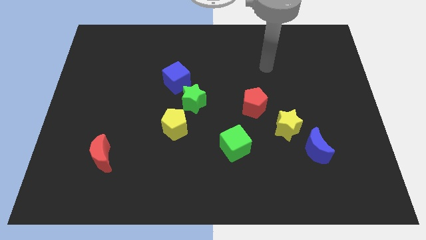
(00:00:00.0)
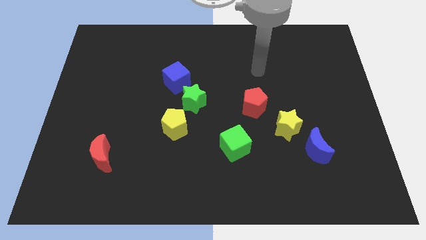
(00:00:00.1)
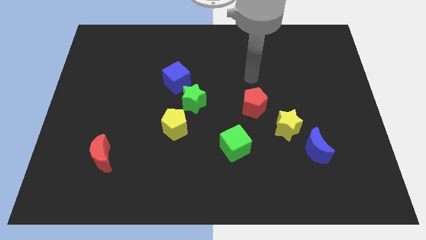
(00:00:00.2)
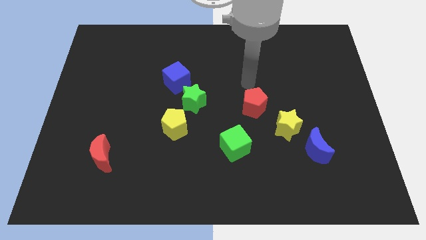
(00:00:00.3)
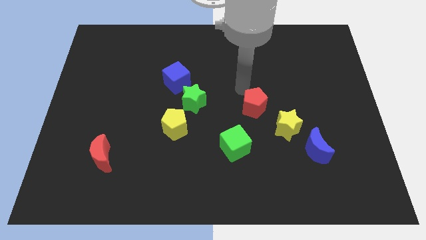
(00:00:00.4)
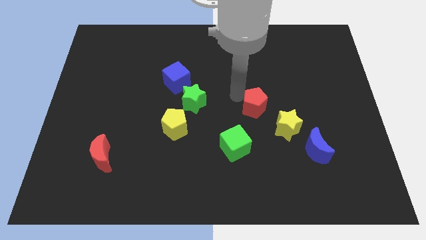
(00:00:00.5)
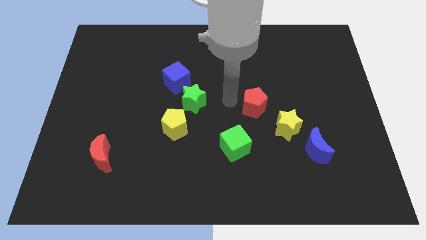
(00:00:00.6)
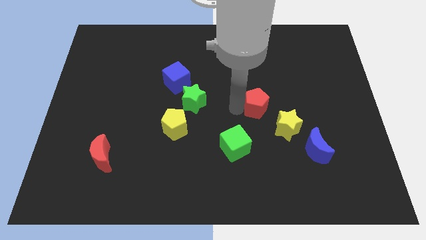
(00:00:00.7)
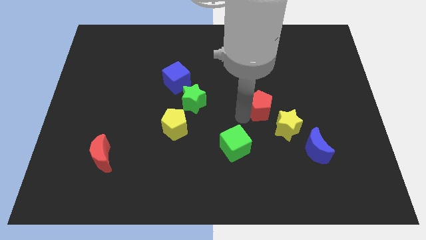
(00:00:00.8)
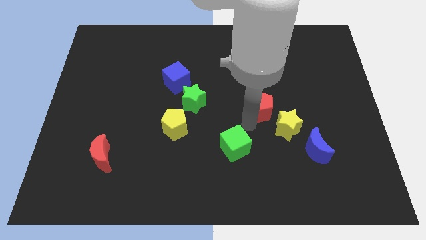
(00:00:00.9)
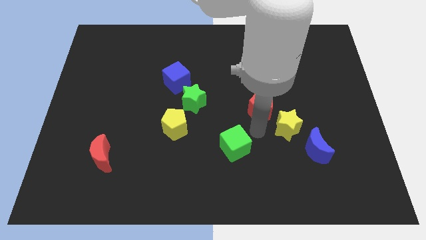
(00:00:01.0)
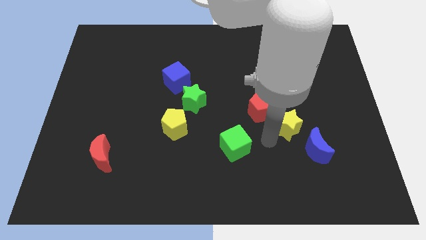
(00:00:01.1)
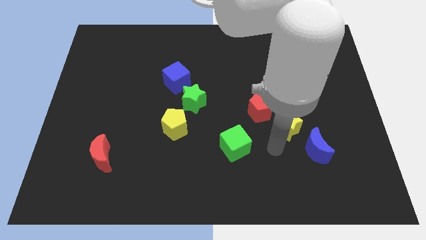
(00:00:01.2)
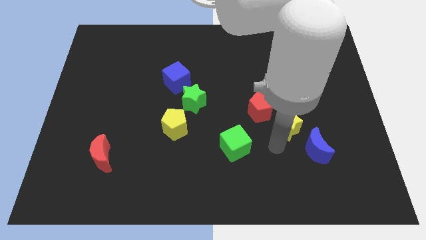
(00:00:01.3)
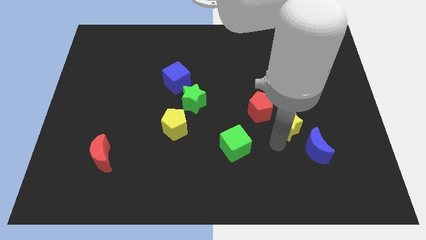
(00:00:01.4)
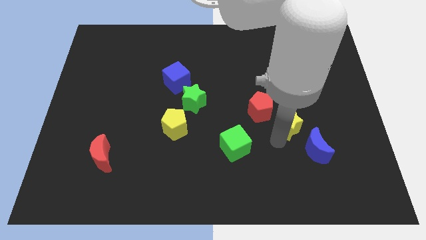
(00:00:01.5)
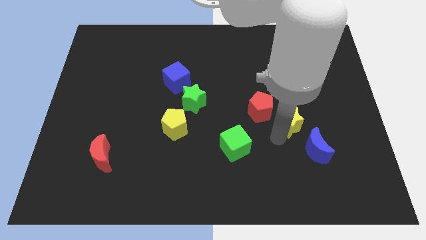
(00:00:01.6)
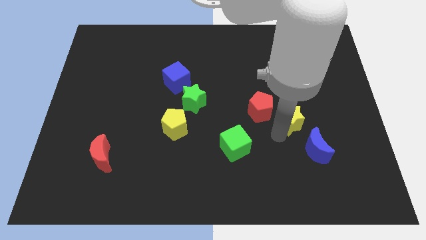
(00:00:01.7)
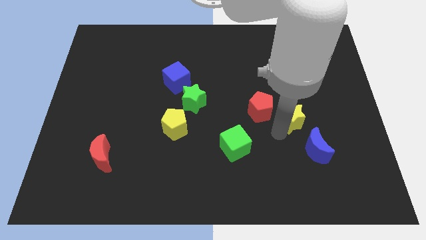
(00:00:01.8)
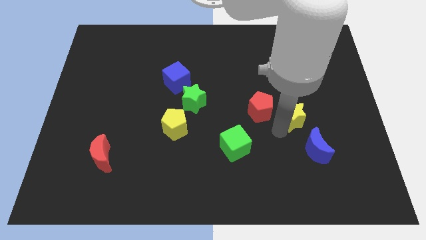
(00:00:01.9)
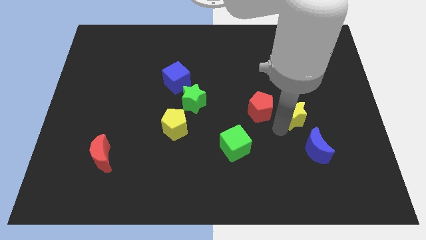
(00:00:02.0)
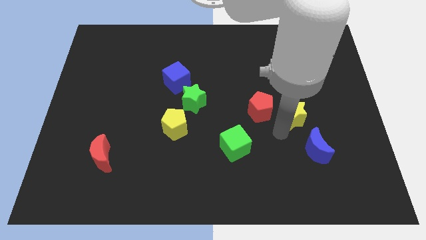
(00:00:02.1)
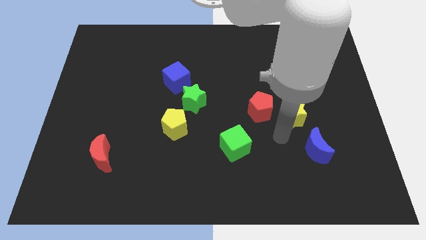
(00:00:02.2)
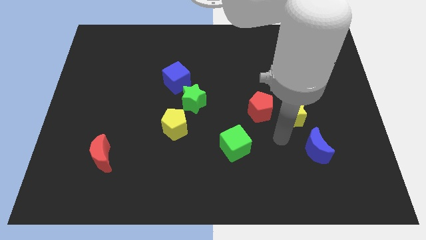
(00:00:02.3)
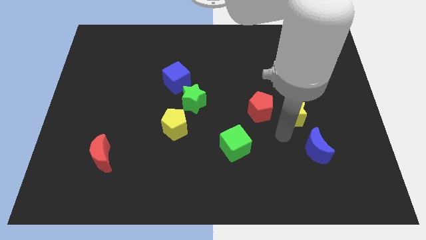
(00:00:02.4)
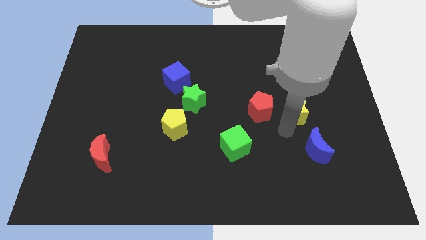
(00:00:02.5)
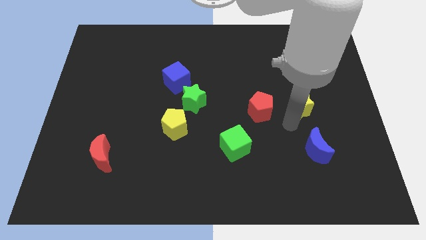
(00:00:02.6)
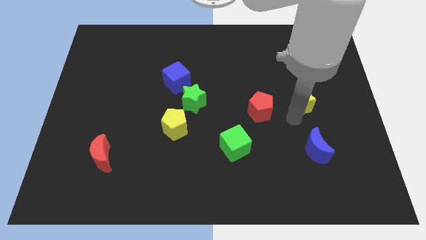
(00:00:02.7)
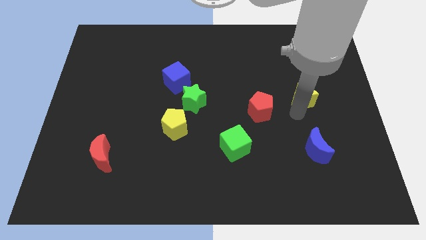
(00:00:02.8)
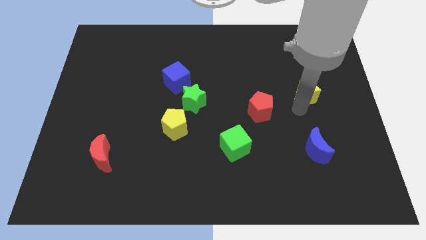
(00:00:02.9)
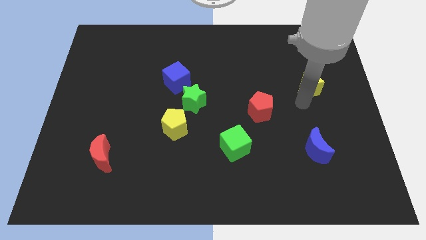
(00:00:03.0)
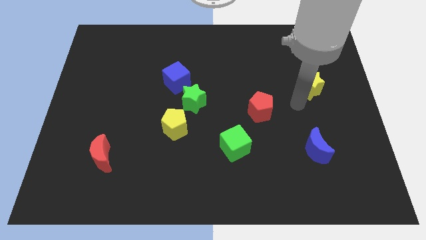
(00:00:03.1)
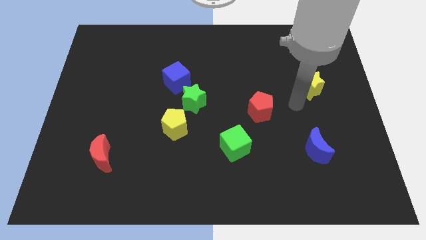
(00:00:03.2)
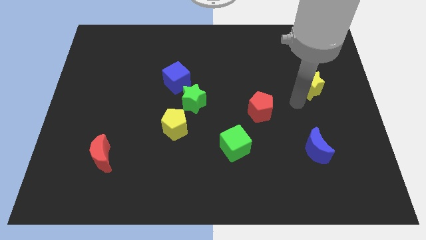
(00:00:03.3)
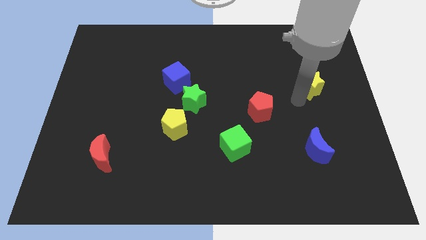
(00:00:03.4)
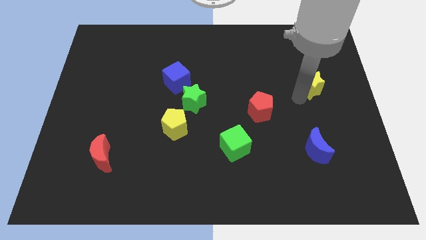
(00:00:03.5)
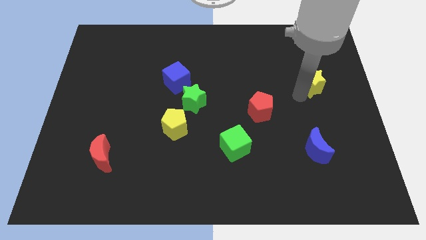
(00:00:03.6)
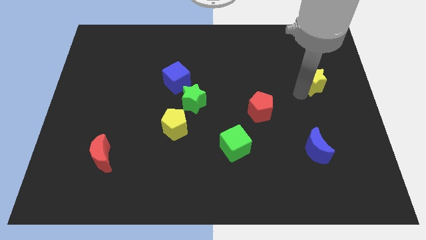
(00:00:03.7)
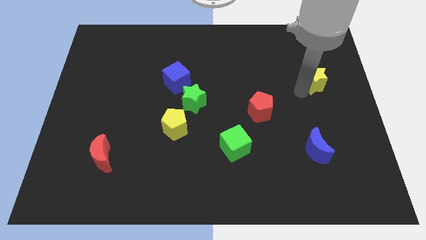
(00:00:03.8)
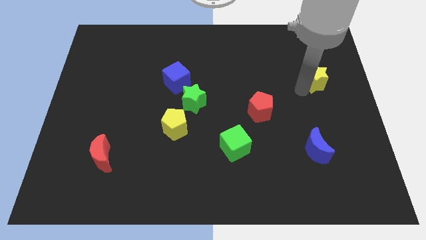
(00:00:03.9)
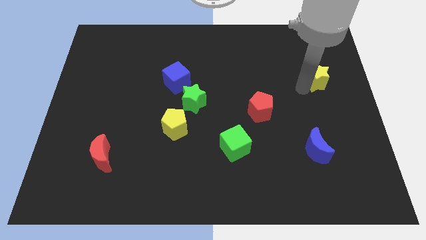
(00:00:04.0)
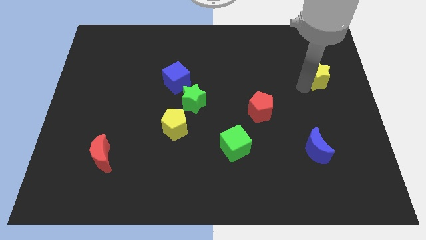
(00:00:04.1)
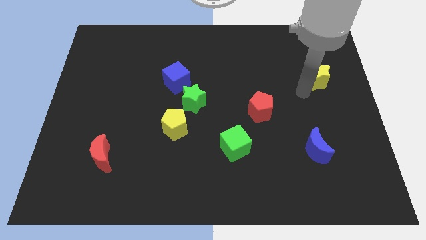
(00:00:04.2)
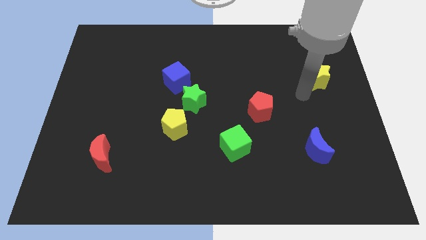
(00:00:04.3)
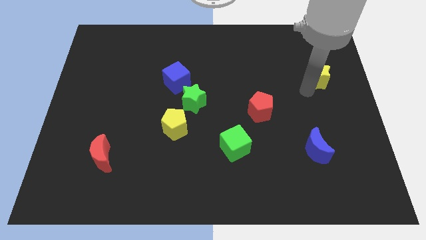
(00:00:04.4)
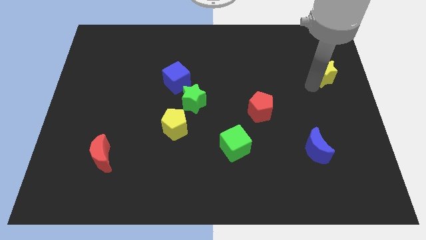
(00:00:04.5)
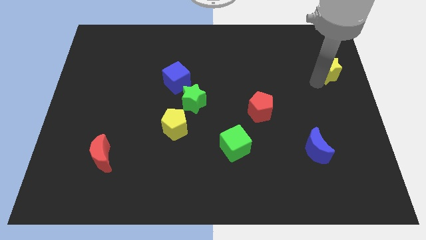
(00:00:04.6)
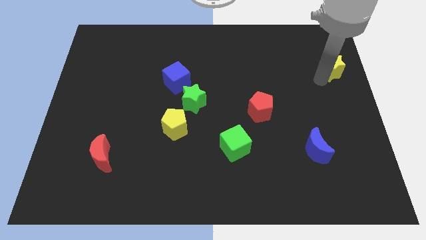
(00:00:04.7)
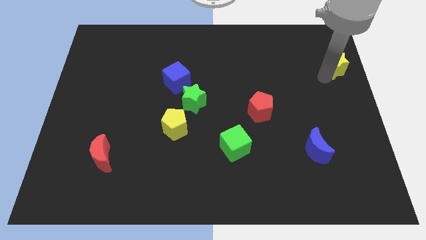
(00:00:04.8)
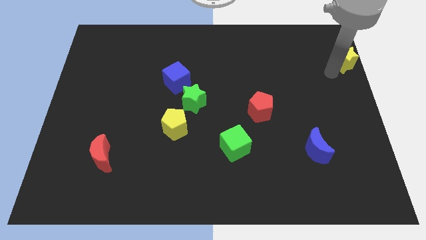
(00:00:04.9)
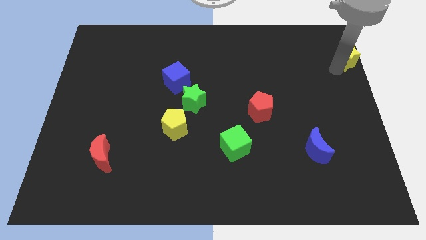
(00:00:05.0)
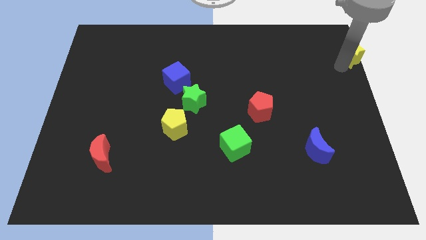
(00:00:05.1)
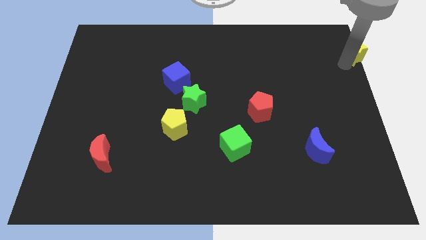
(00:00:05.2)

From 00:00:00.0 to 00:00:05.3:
move the yellow star to the top right

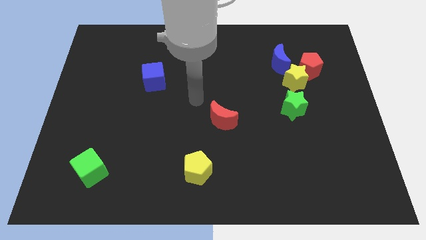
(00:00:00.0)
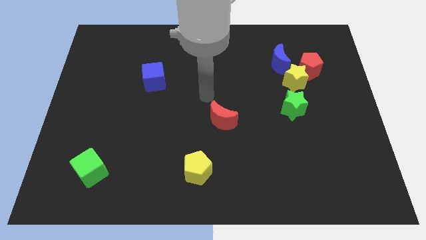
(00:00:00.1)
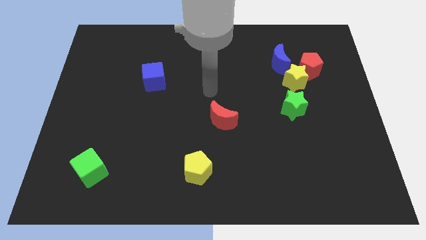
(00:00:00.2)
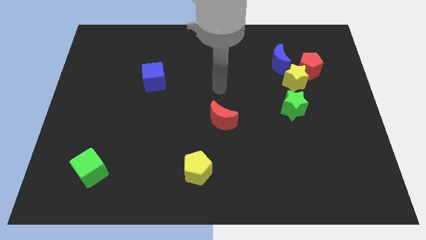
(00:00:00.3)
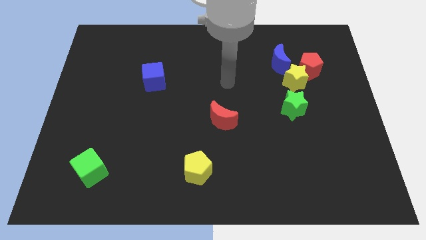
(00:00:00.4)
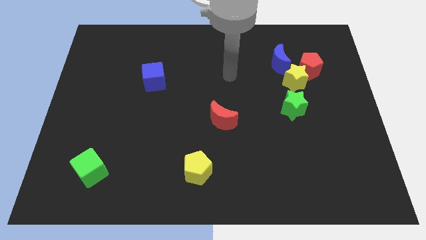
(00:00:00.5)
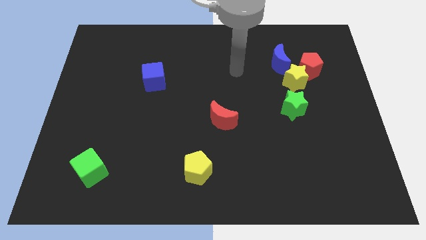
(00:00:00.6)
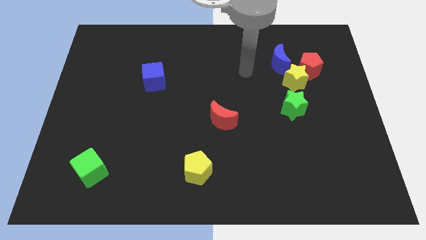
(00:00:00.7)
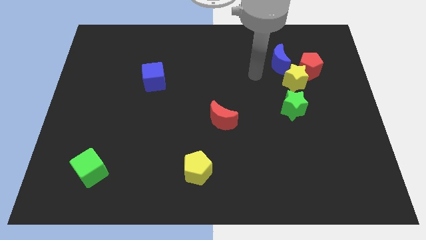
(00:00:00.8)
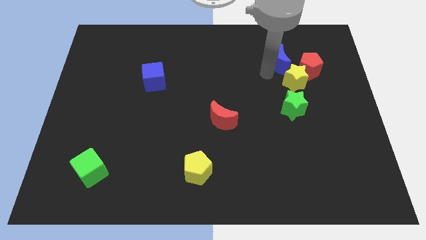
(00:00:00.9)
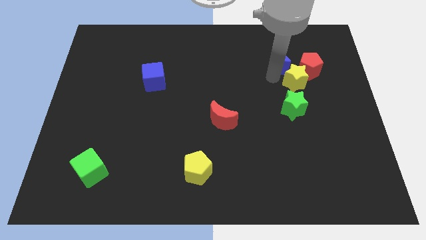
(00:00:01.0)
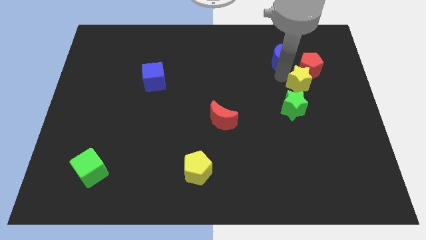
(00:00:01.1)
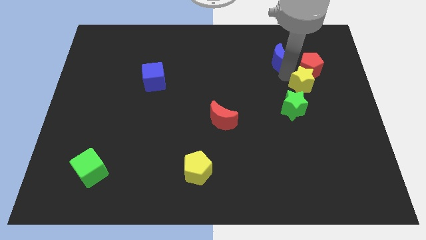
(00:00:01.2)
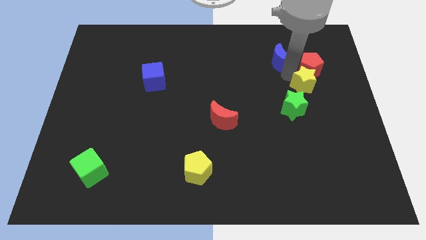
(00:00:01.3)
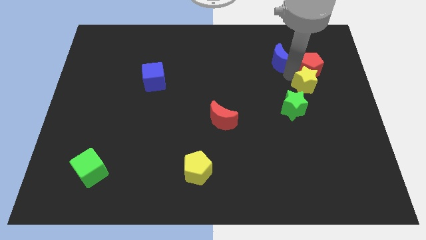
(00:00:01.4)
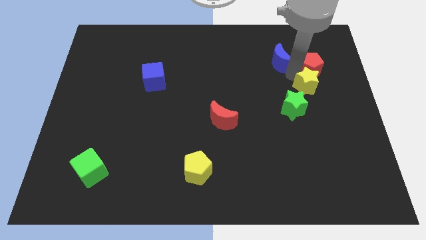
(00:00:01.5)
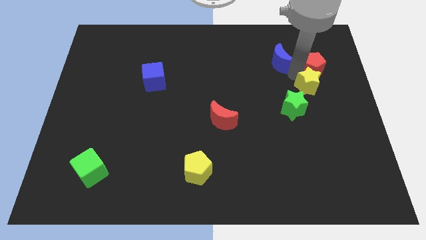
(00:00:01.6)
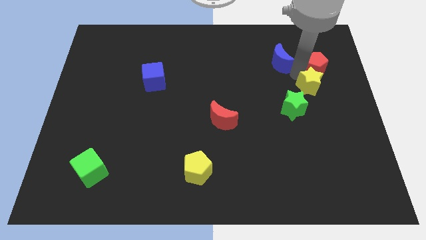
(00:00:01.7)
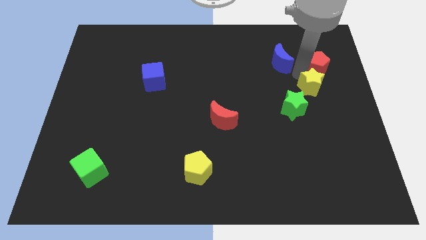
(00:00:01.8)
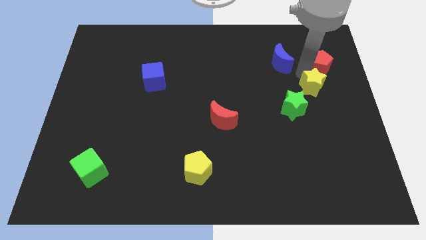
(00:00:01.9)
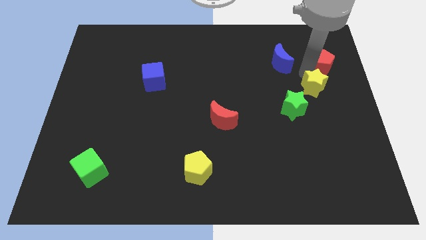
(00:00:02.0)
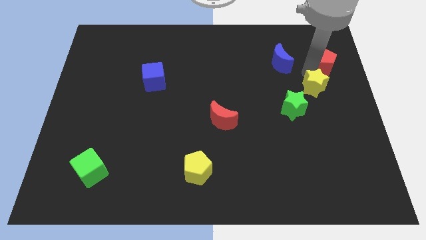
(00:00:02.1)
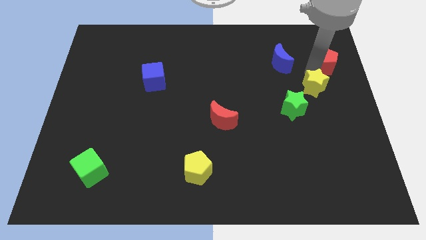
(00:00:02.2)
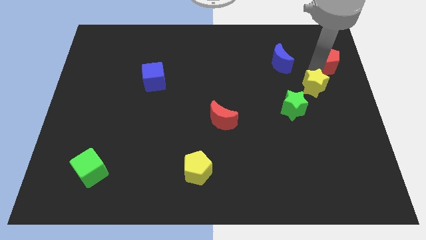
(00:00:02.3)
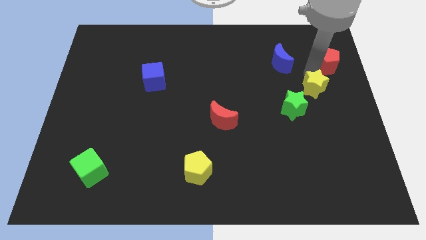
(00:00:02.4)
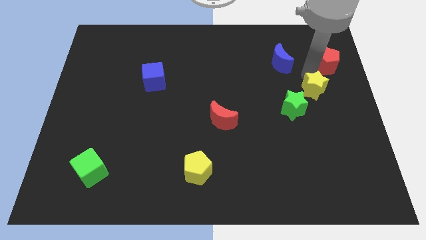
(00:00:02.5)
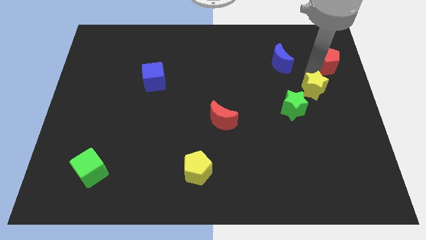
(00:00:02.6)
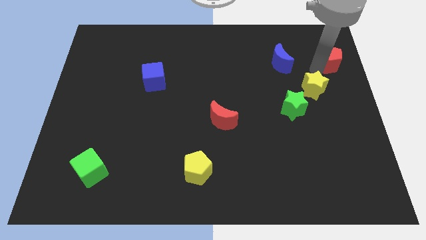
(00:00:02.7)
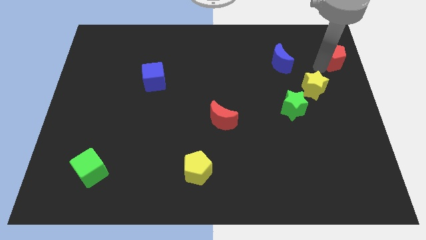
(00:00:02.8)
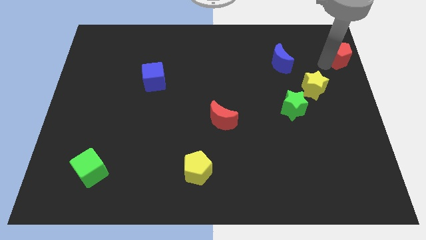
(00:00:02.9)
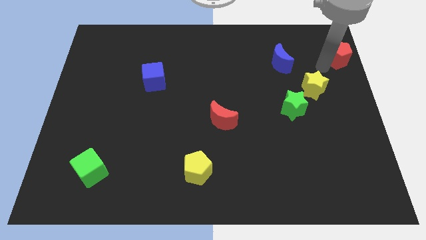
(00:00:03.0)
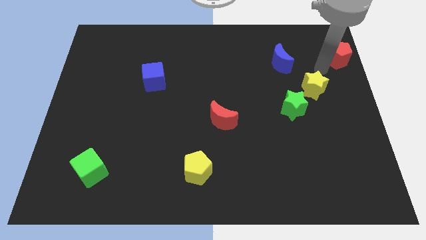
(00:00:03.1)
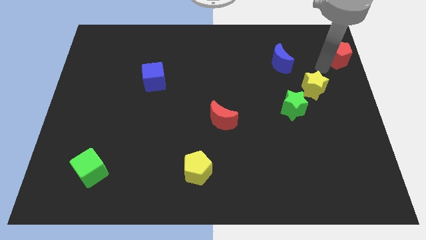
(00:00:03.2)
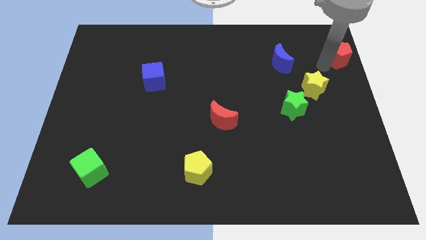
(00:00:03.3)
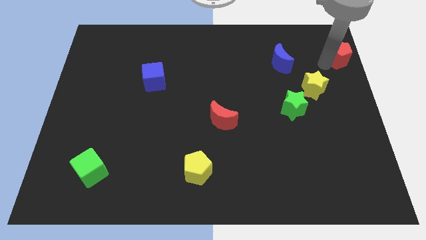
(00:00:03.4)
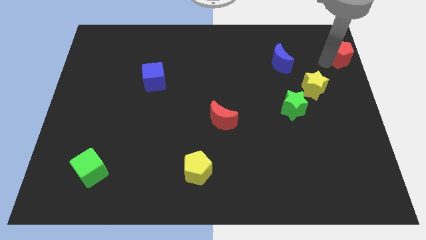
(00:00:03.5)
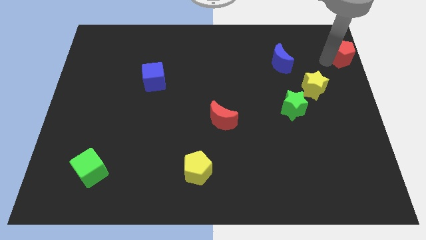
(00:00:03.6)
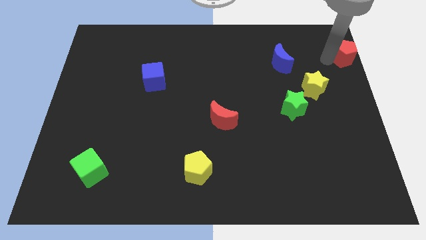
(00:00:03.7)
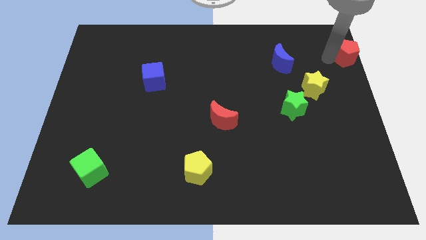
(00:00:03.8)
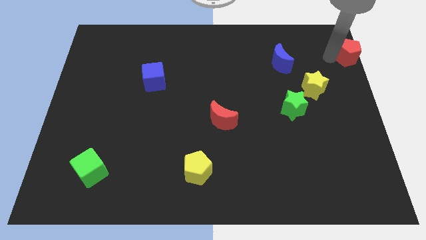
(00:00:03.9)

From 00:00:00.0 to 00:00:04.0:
slide the red pentagon to the upper right corner
